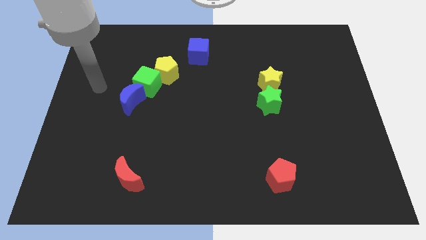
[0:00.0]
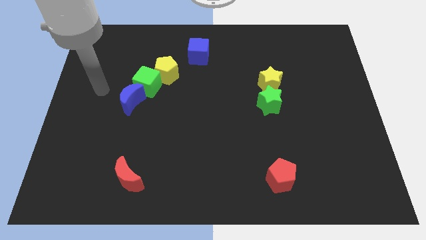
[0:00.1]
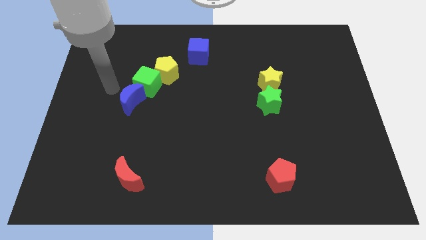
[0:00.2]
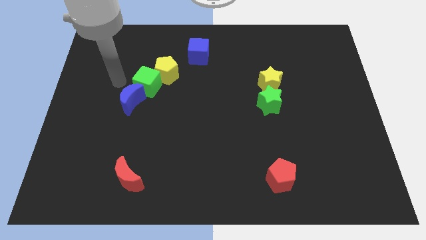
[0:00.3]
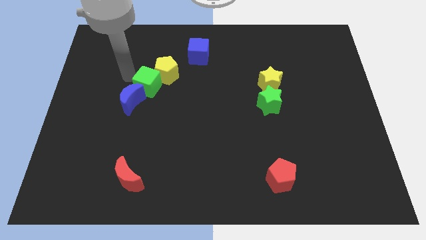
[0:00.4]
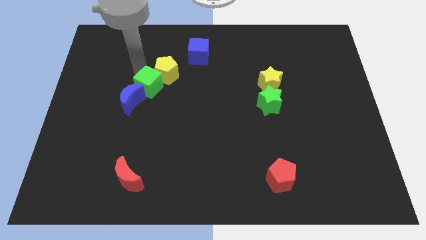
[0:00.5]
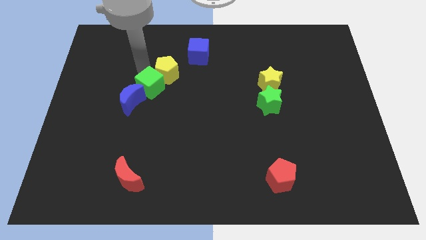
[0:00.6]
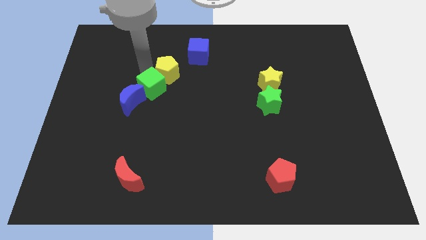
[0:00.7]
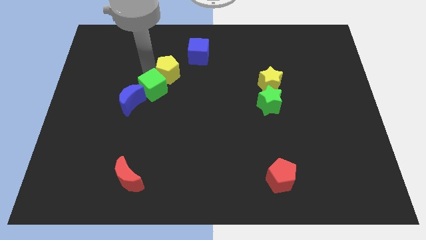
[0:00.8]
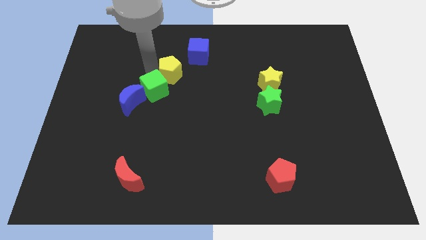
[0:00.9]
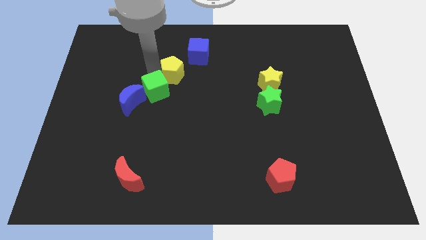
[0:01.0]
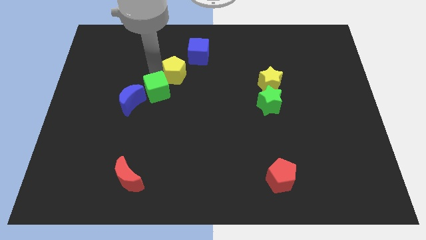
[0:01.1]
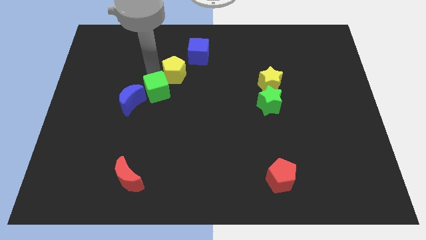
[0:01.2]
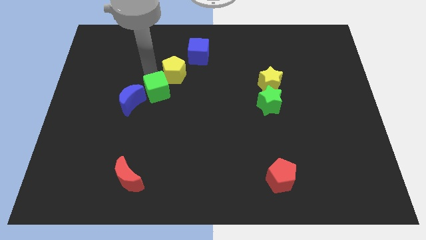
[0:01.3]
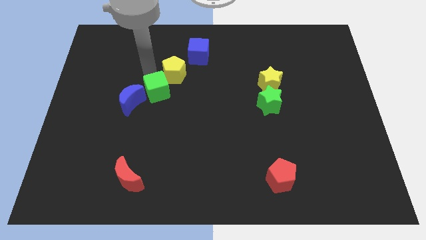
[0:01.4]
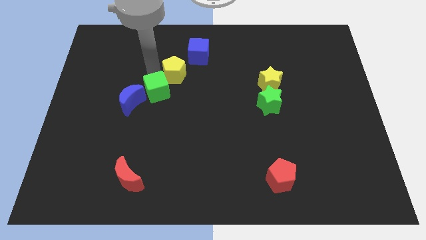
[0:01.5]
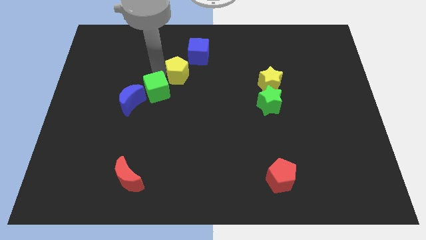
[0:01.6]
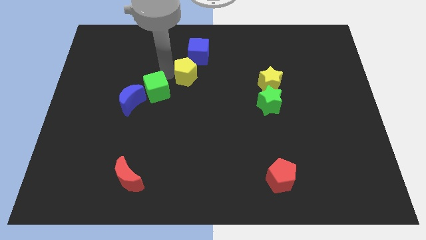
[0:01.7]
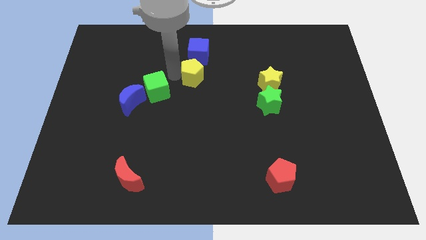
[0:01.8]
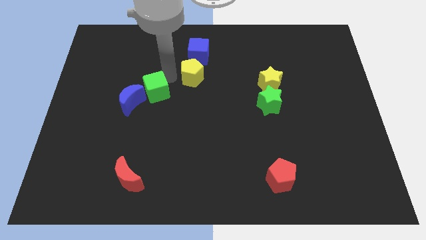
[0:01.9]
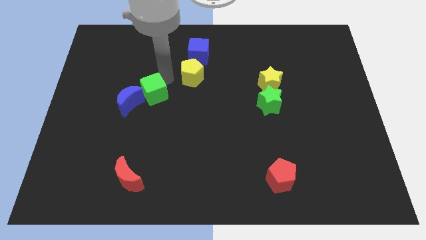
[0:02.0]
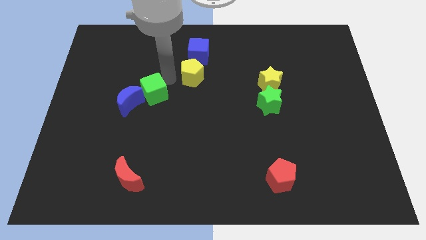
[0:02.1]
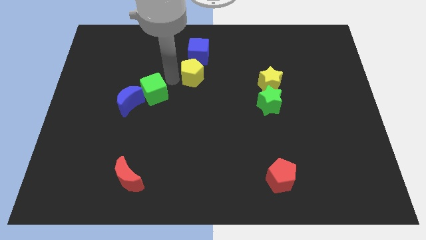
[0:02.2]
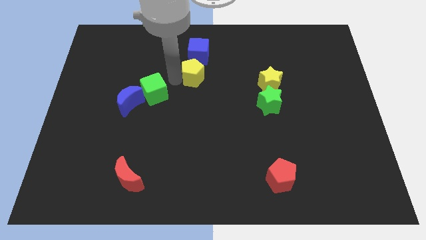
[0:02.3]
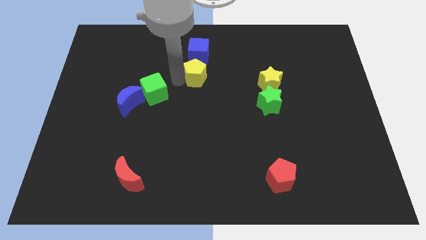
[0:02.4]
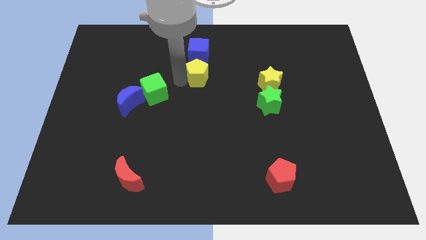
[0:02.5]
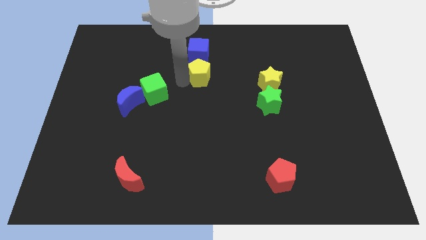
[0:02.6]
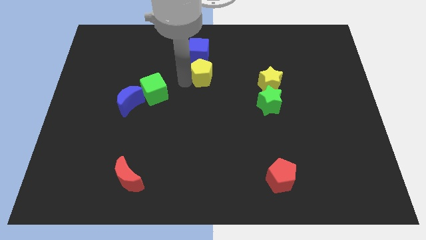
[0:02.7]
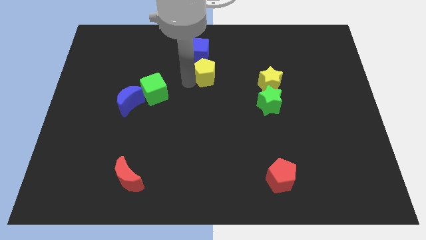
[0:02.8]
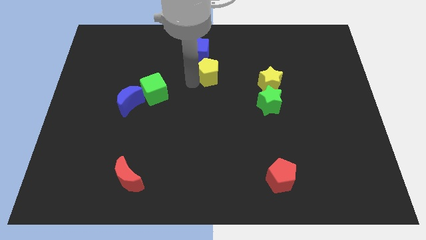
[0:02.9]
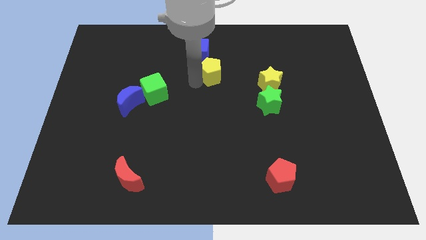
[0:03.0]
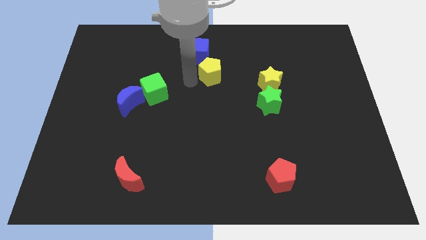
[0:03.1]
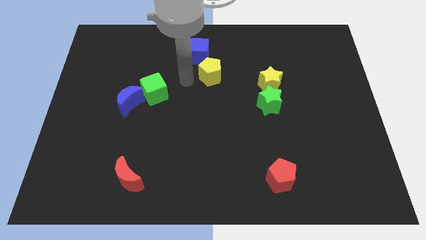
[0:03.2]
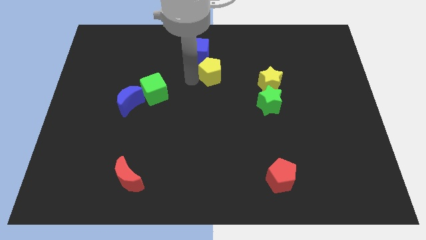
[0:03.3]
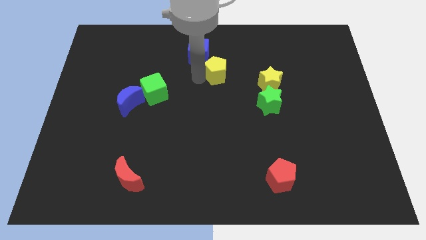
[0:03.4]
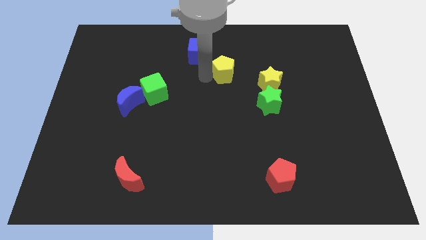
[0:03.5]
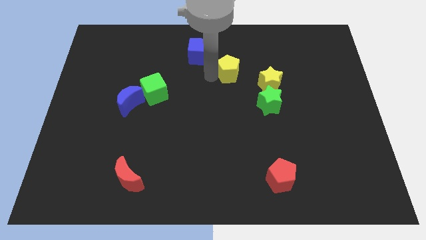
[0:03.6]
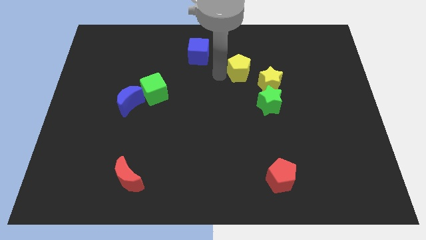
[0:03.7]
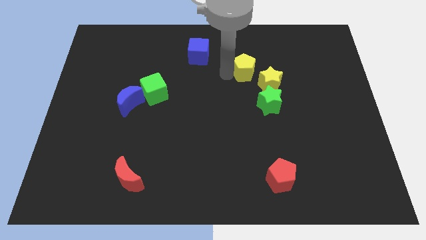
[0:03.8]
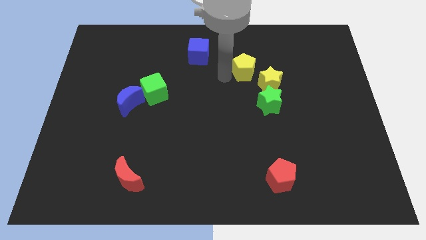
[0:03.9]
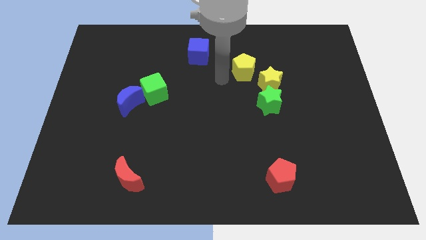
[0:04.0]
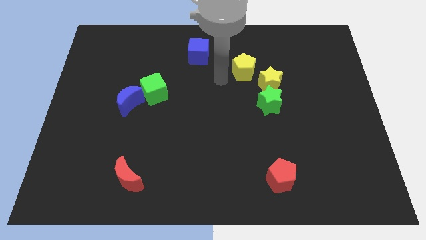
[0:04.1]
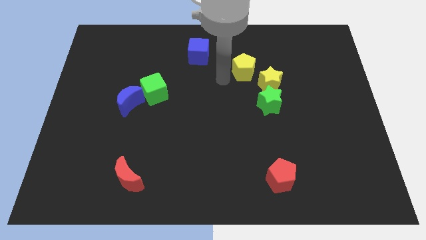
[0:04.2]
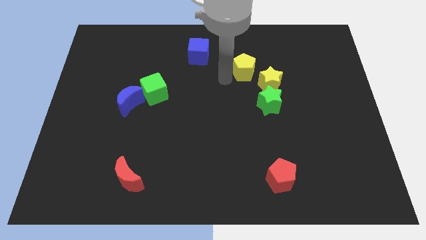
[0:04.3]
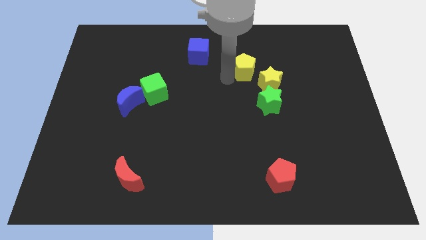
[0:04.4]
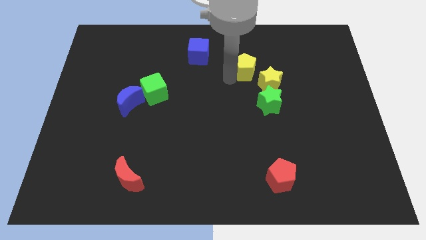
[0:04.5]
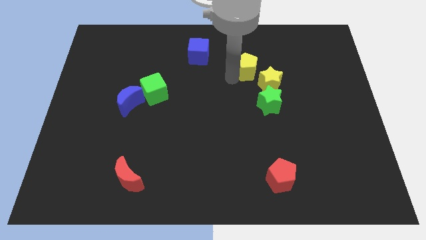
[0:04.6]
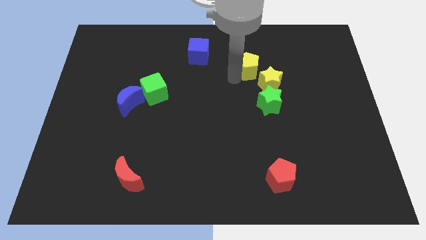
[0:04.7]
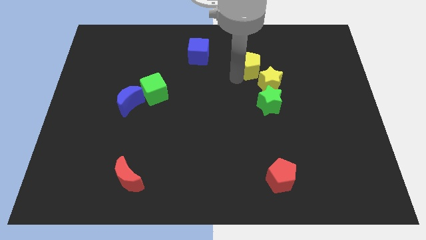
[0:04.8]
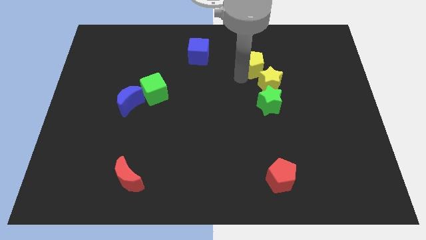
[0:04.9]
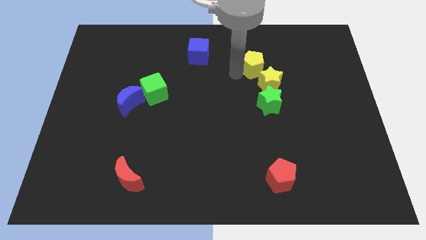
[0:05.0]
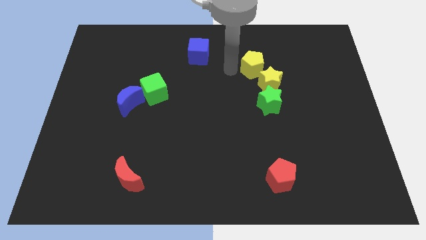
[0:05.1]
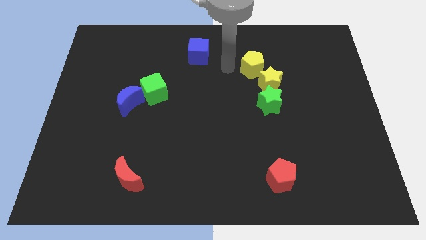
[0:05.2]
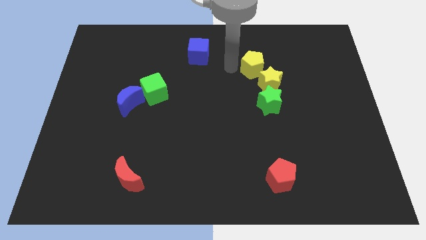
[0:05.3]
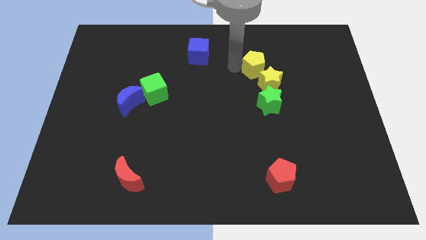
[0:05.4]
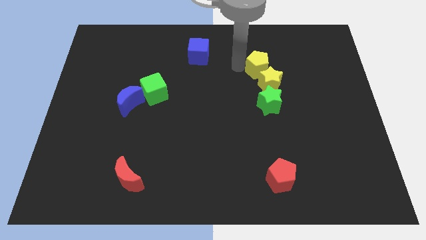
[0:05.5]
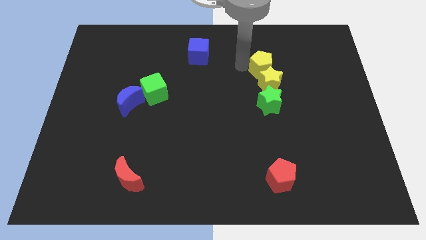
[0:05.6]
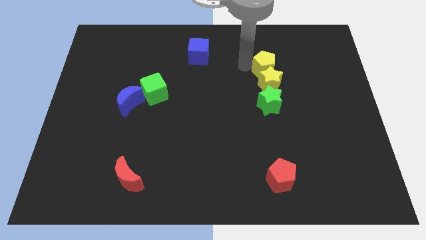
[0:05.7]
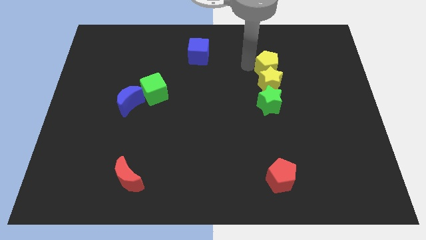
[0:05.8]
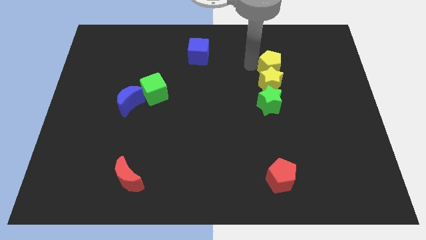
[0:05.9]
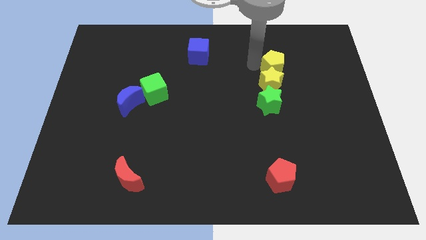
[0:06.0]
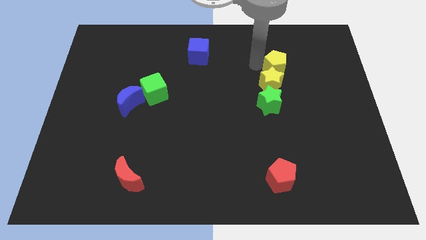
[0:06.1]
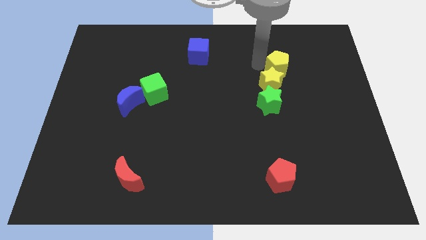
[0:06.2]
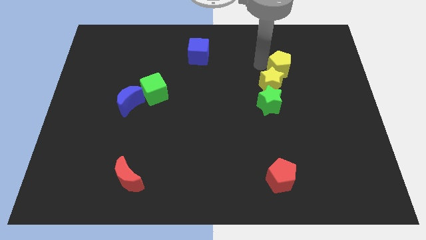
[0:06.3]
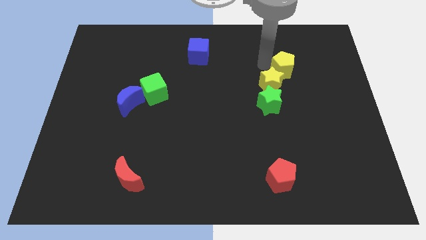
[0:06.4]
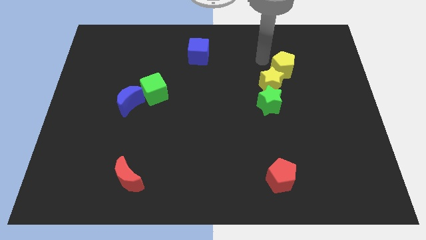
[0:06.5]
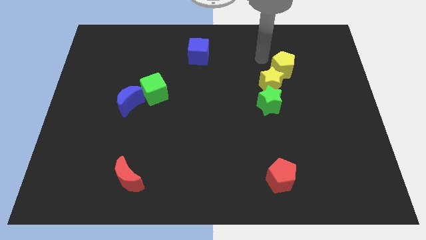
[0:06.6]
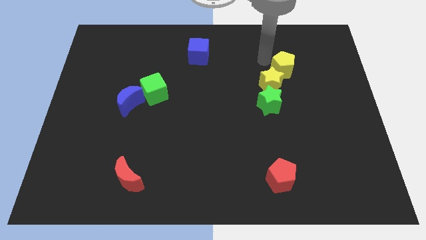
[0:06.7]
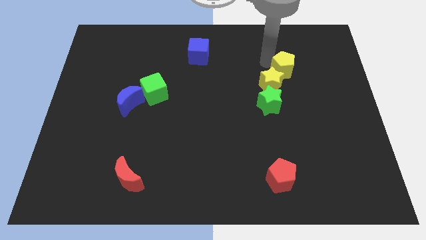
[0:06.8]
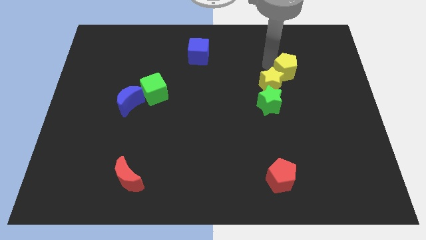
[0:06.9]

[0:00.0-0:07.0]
push the yellow pentagon right of the yellow star
